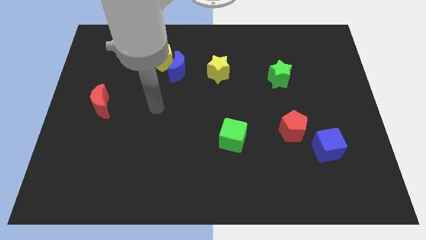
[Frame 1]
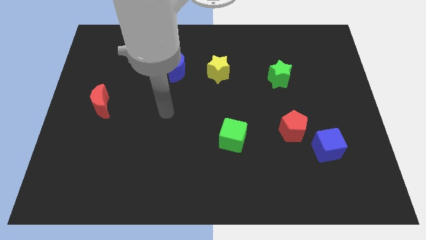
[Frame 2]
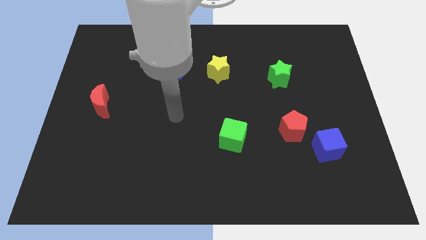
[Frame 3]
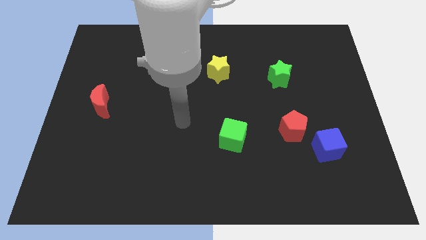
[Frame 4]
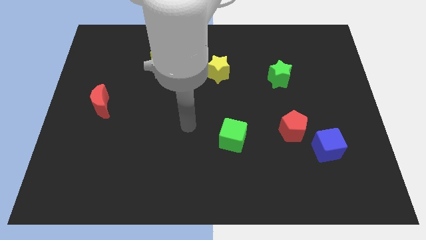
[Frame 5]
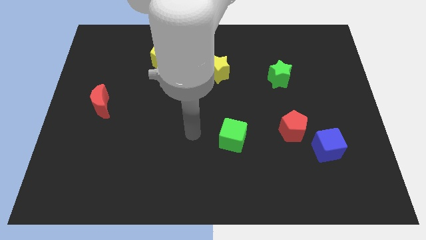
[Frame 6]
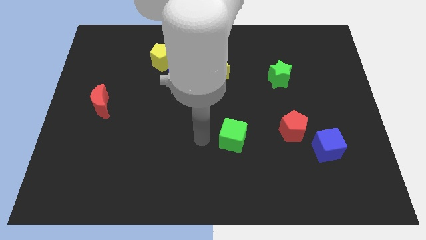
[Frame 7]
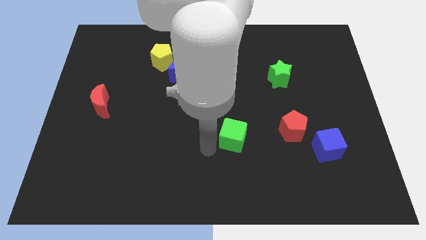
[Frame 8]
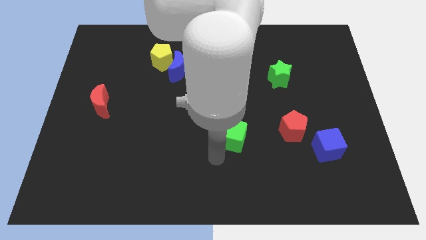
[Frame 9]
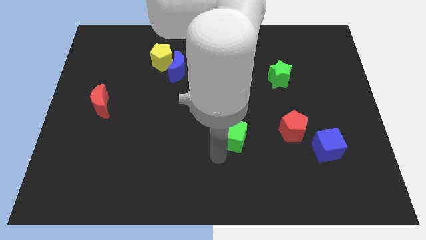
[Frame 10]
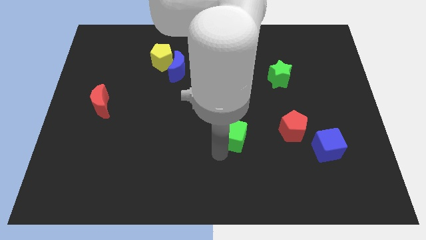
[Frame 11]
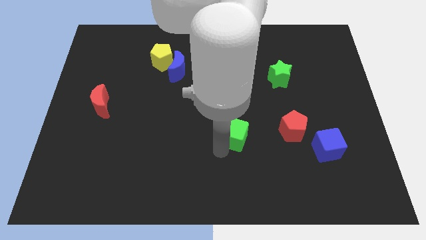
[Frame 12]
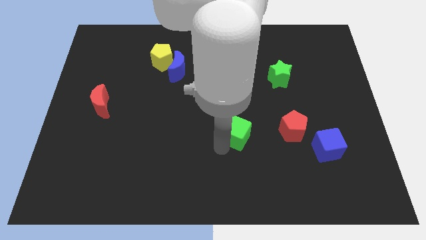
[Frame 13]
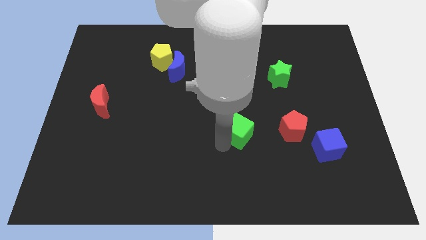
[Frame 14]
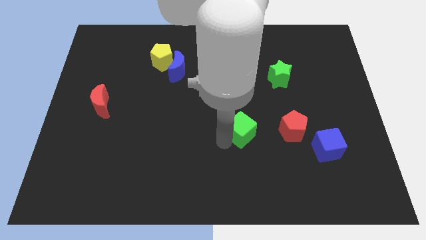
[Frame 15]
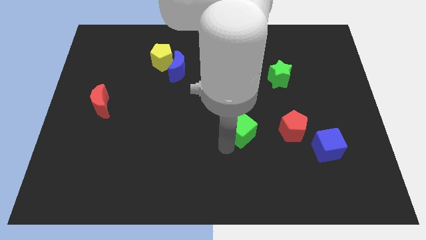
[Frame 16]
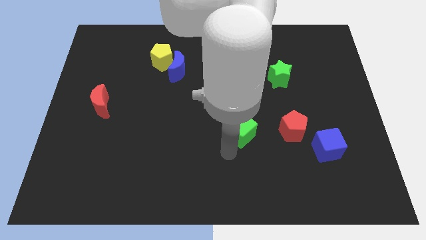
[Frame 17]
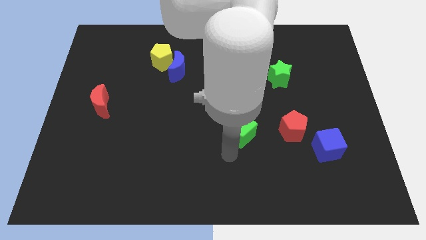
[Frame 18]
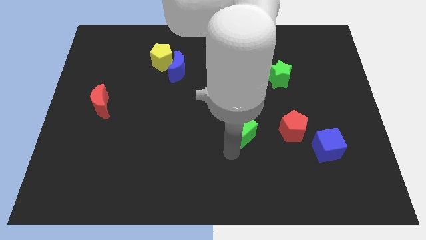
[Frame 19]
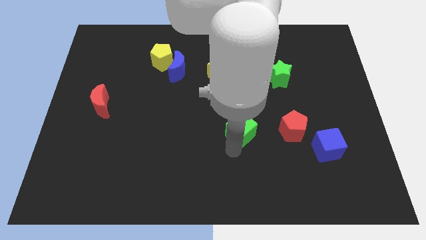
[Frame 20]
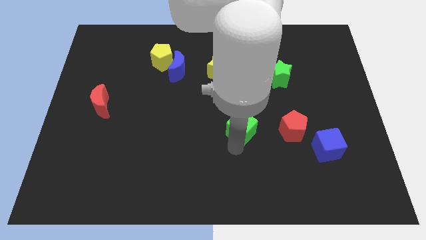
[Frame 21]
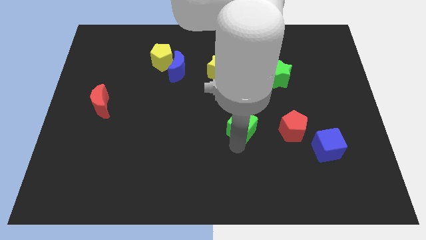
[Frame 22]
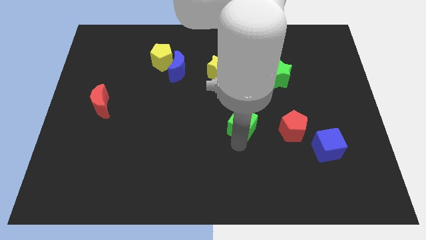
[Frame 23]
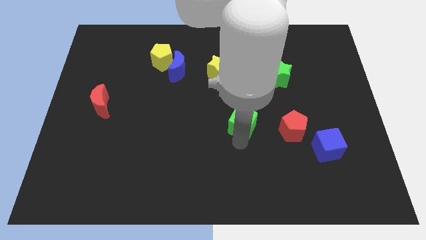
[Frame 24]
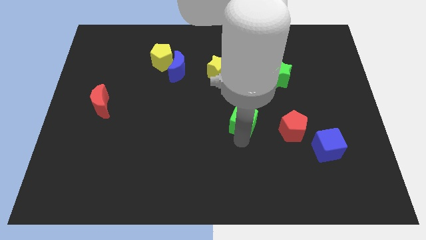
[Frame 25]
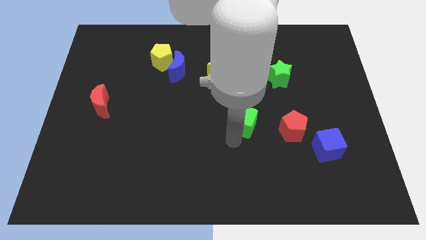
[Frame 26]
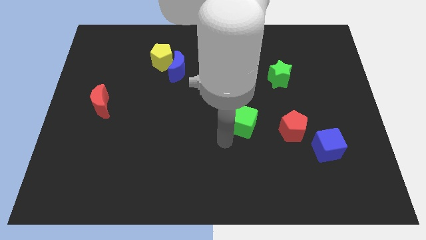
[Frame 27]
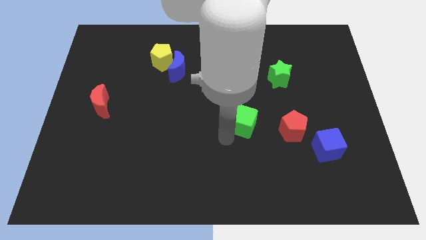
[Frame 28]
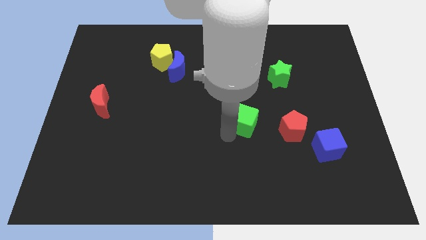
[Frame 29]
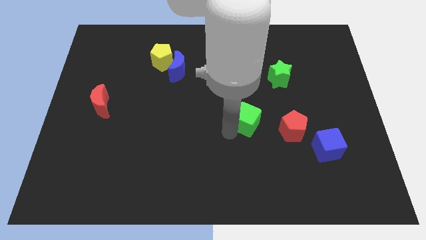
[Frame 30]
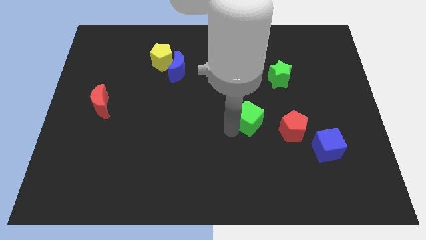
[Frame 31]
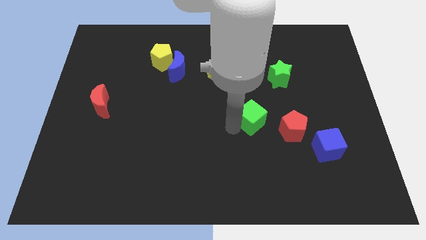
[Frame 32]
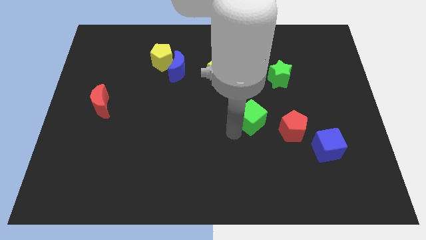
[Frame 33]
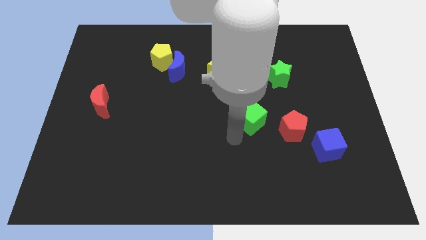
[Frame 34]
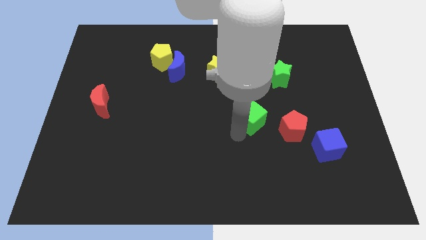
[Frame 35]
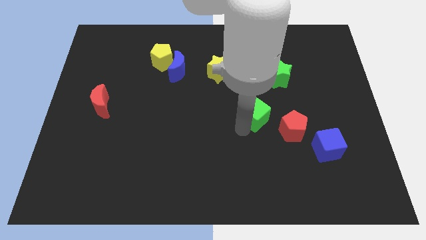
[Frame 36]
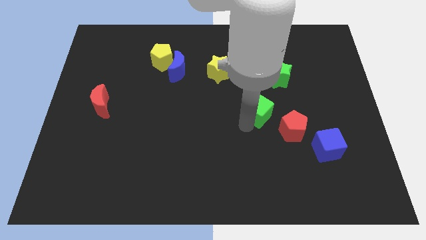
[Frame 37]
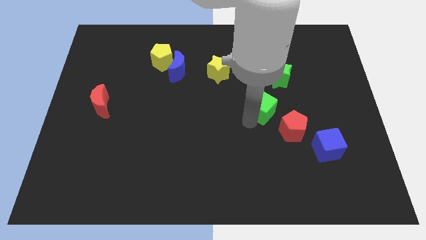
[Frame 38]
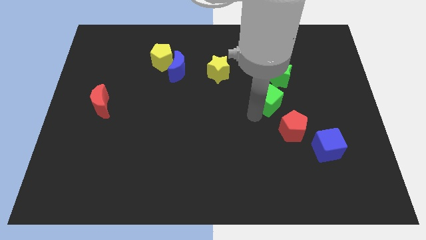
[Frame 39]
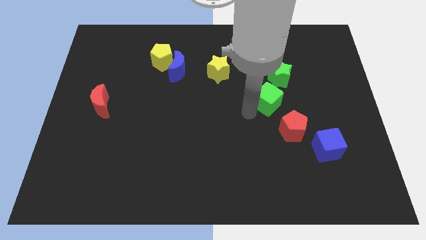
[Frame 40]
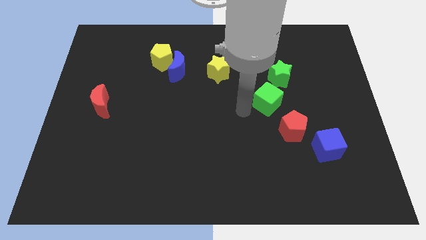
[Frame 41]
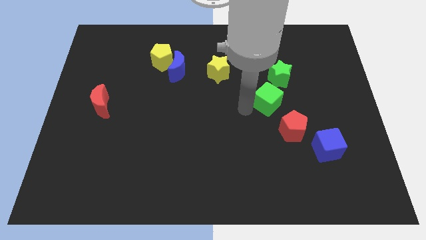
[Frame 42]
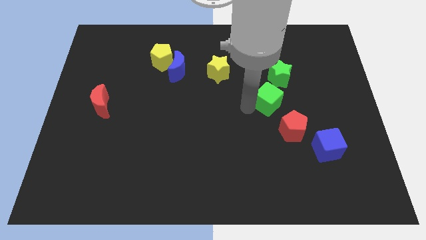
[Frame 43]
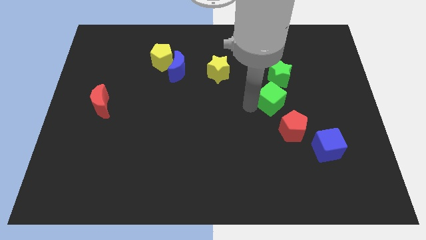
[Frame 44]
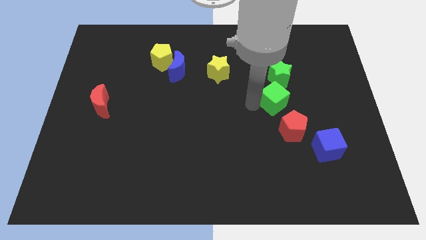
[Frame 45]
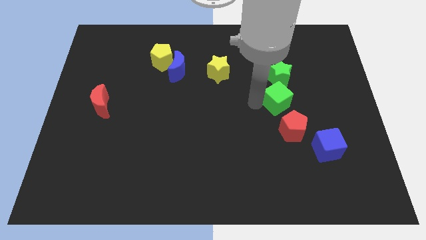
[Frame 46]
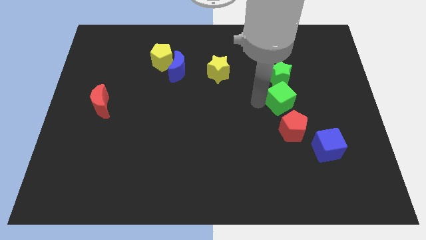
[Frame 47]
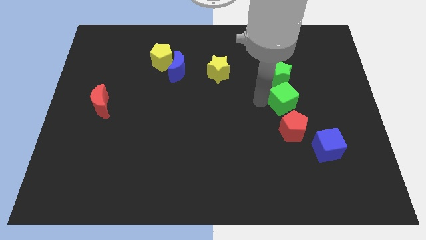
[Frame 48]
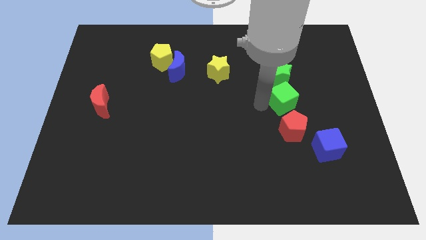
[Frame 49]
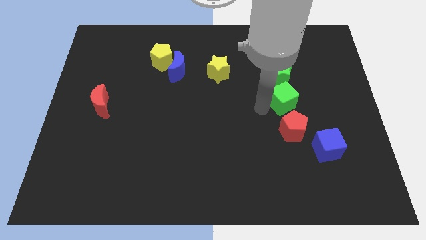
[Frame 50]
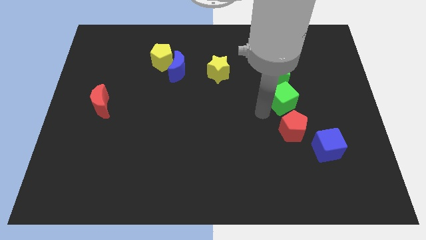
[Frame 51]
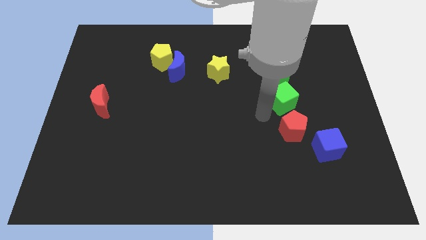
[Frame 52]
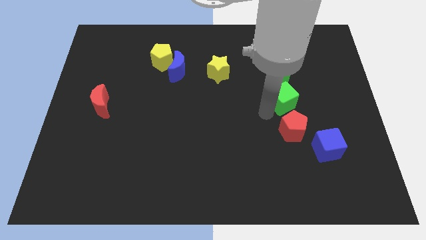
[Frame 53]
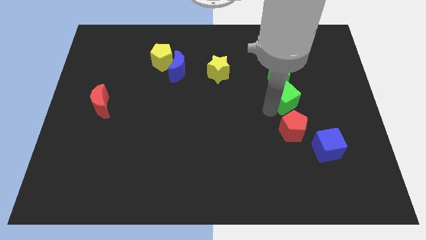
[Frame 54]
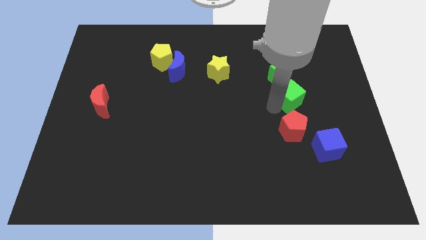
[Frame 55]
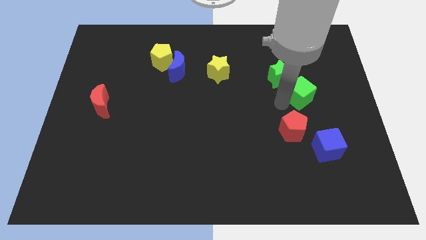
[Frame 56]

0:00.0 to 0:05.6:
slide the green cube upwards and right

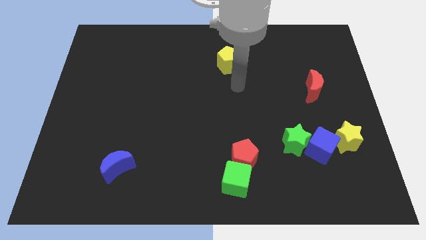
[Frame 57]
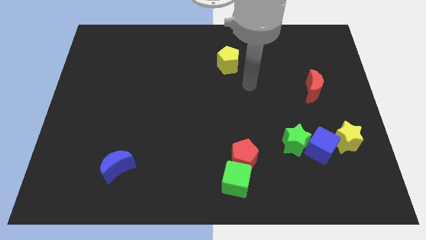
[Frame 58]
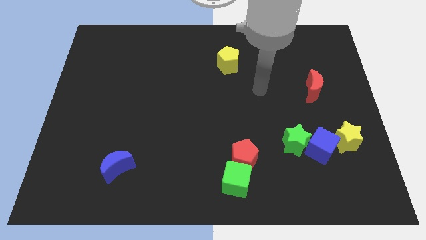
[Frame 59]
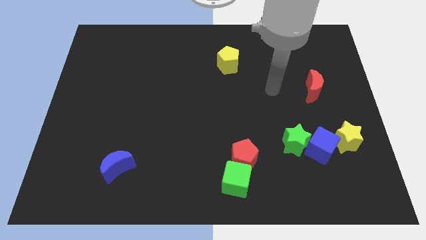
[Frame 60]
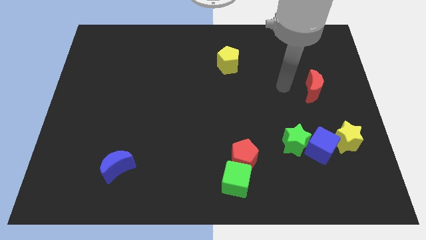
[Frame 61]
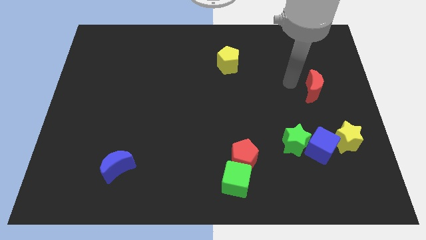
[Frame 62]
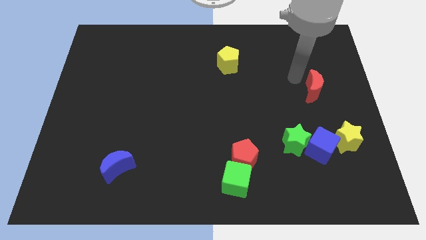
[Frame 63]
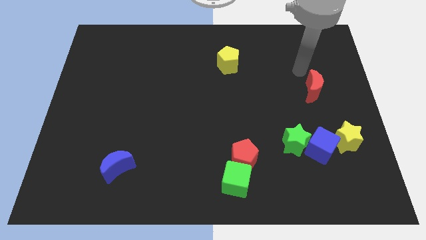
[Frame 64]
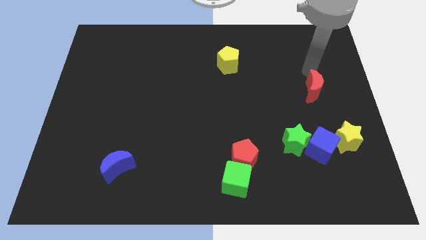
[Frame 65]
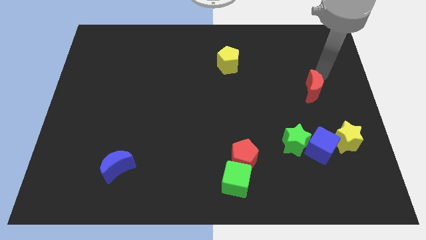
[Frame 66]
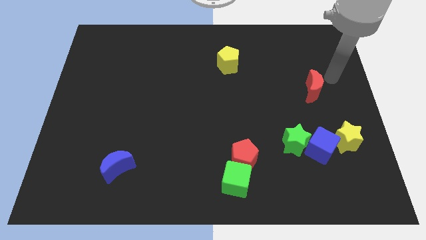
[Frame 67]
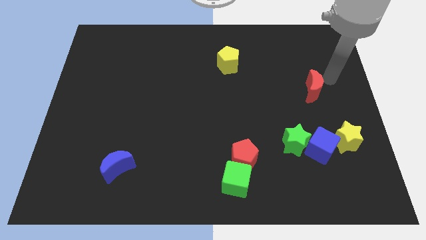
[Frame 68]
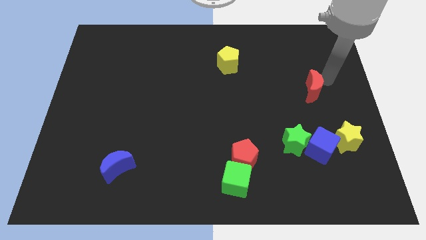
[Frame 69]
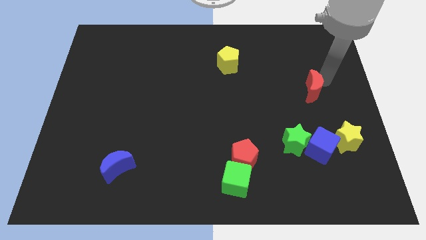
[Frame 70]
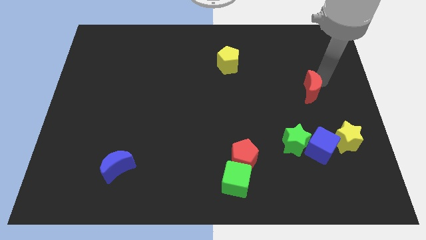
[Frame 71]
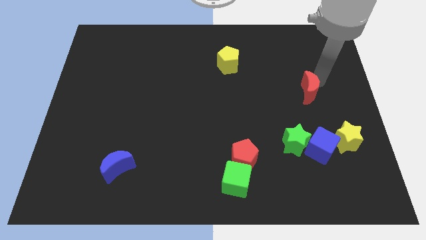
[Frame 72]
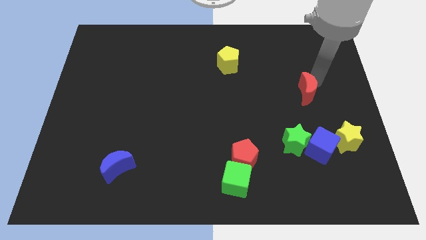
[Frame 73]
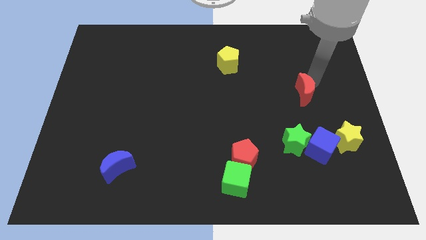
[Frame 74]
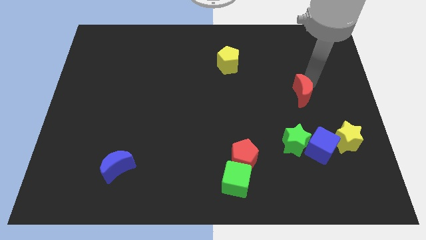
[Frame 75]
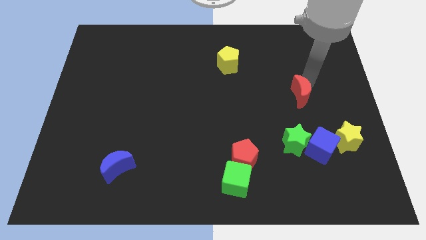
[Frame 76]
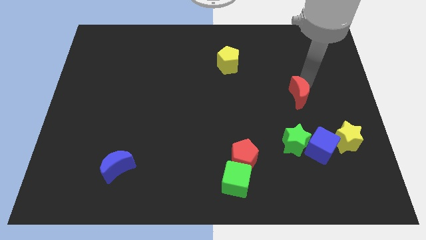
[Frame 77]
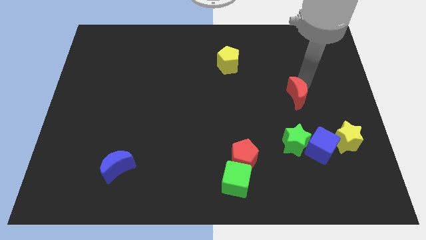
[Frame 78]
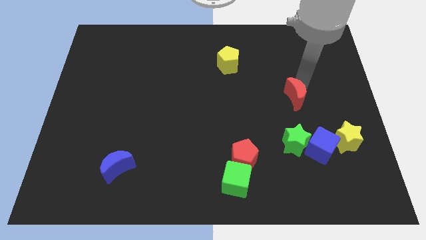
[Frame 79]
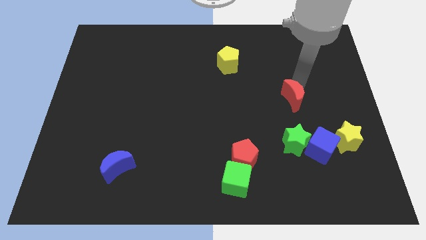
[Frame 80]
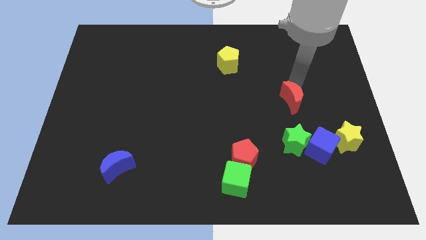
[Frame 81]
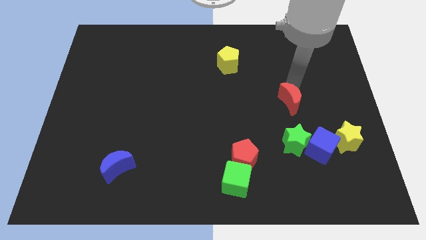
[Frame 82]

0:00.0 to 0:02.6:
slide the red moon somewhat down and then left

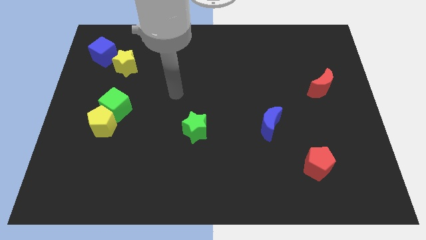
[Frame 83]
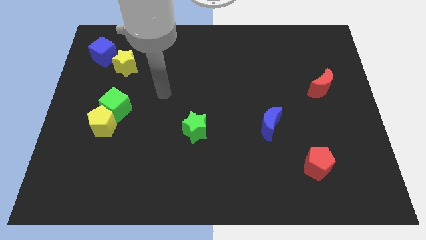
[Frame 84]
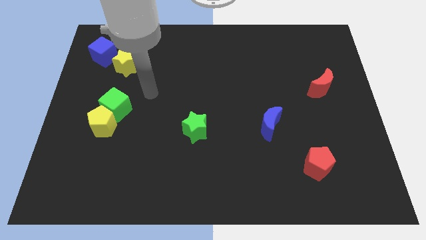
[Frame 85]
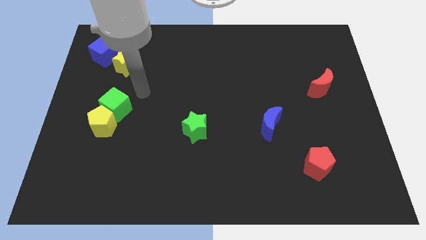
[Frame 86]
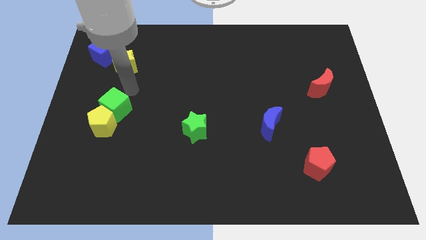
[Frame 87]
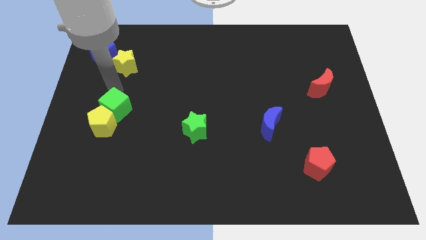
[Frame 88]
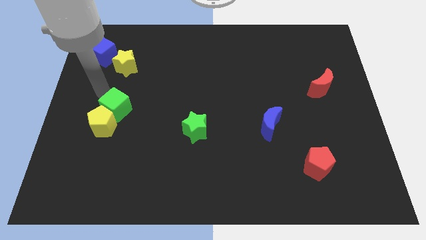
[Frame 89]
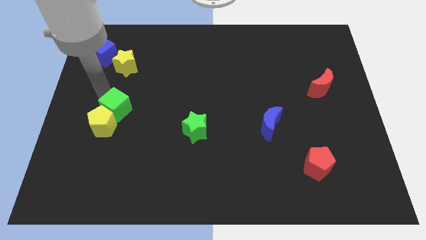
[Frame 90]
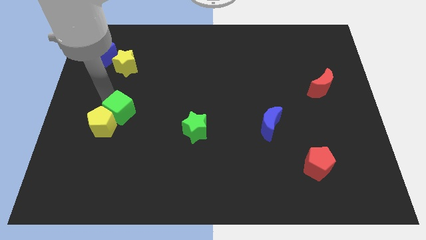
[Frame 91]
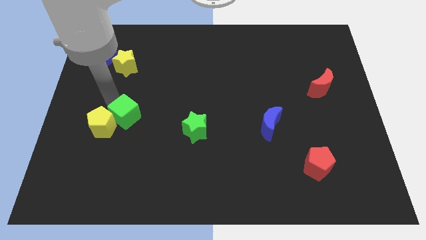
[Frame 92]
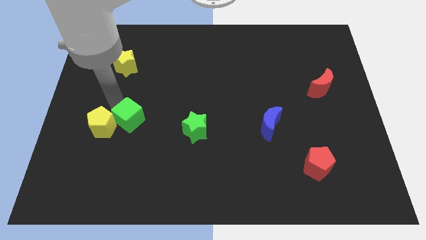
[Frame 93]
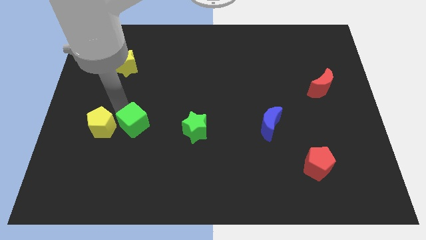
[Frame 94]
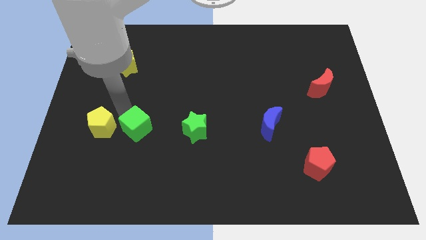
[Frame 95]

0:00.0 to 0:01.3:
slightly move the green cube downwards and to the right diagonally
